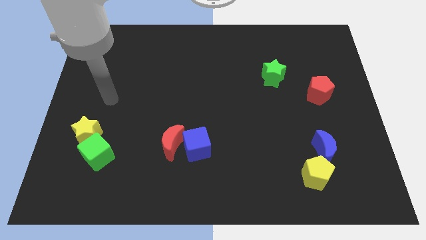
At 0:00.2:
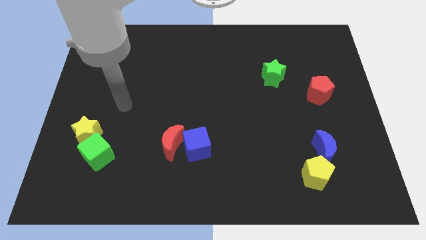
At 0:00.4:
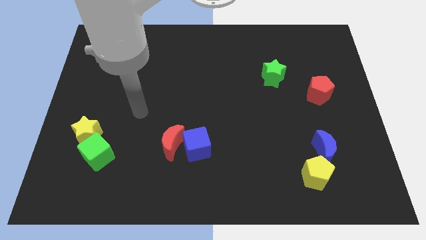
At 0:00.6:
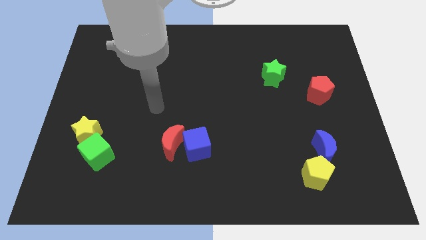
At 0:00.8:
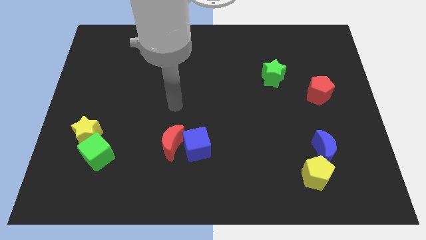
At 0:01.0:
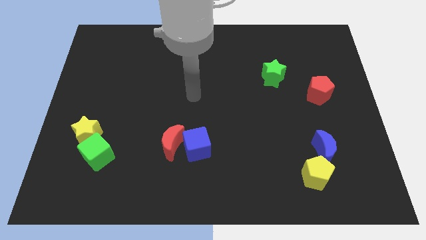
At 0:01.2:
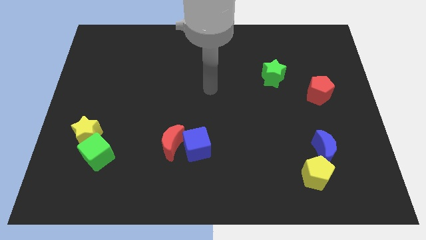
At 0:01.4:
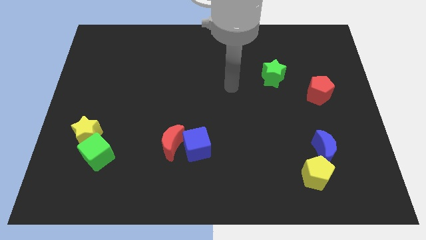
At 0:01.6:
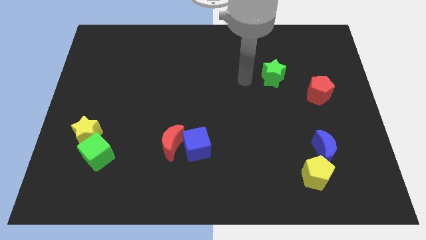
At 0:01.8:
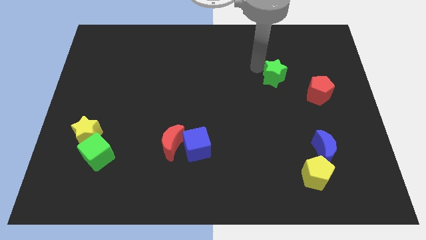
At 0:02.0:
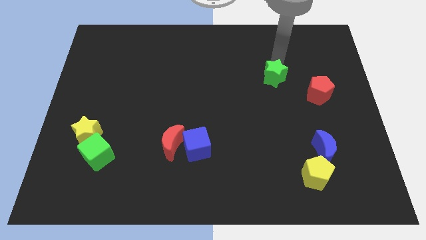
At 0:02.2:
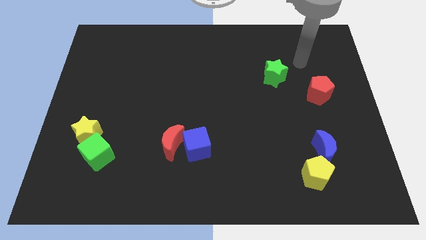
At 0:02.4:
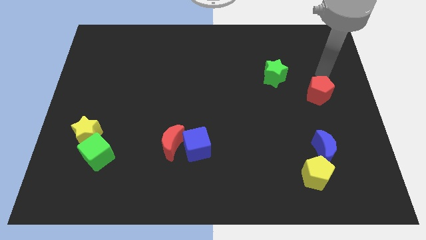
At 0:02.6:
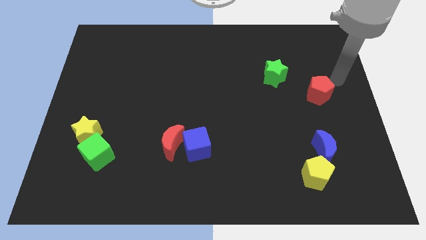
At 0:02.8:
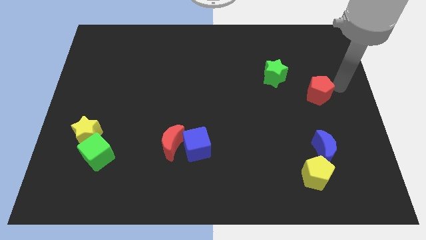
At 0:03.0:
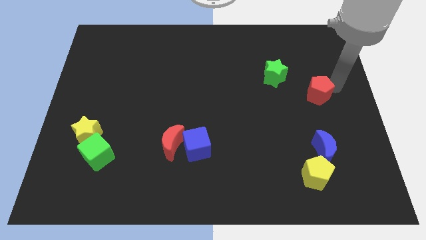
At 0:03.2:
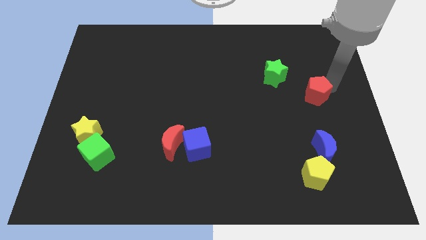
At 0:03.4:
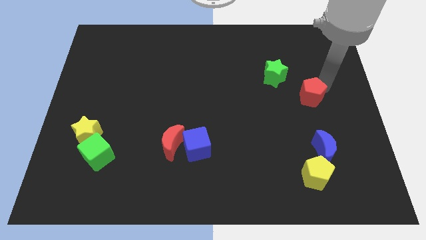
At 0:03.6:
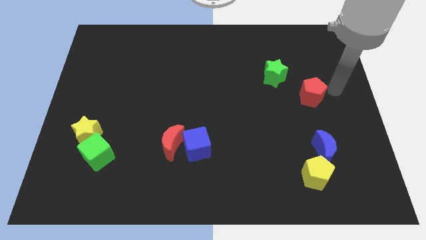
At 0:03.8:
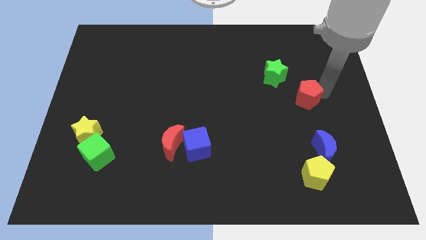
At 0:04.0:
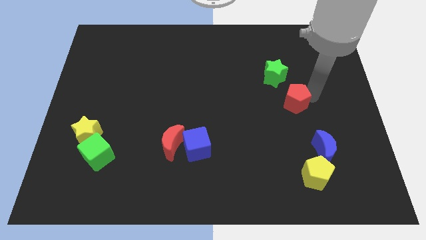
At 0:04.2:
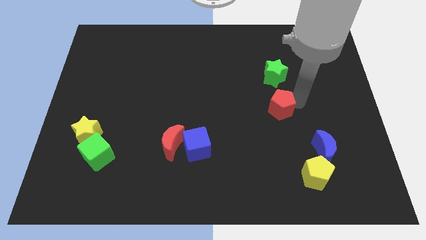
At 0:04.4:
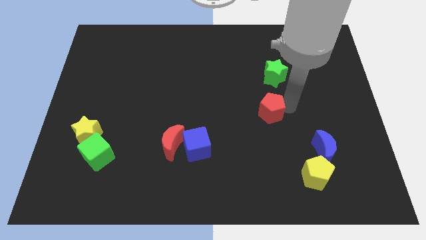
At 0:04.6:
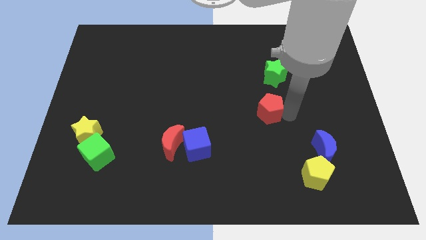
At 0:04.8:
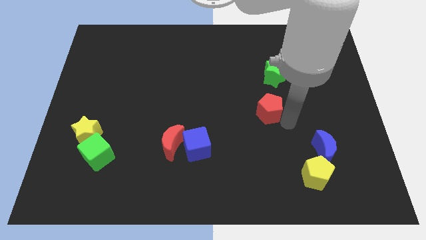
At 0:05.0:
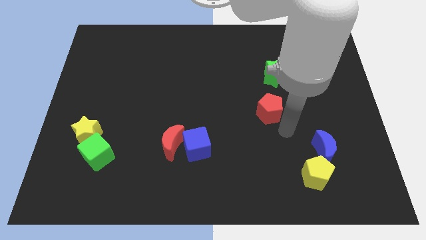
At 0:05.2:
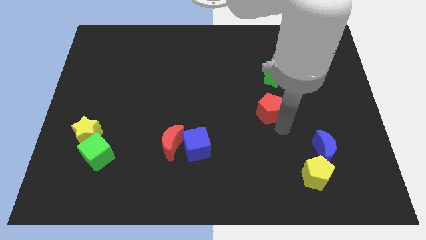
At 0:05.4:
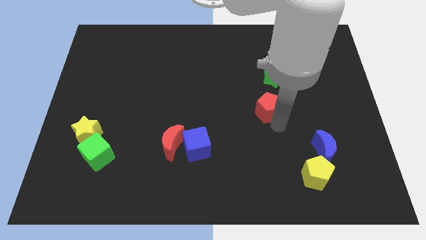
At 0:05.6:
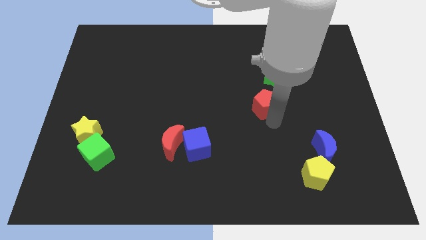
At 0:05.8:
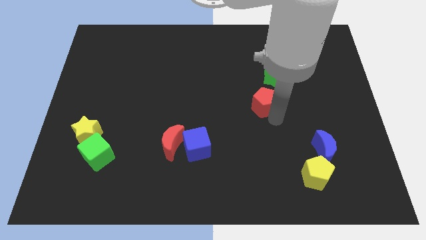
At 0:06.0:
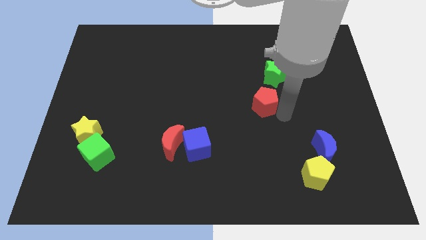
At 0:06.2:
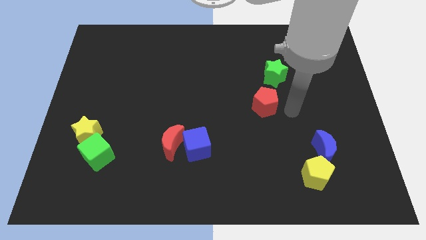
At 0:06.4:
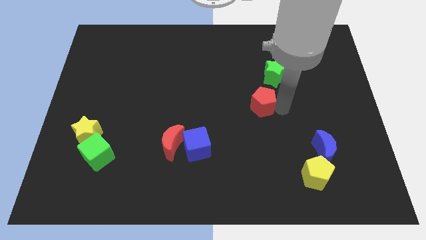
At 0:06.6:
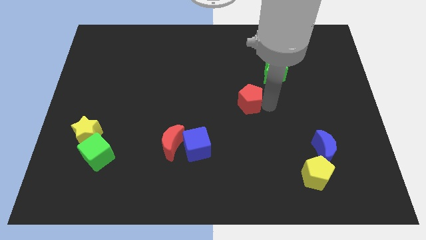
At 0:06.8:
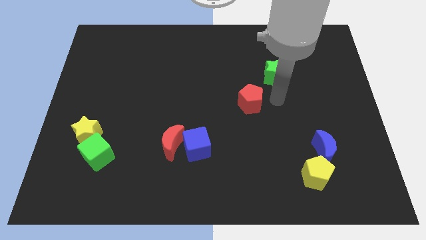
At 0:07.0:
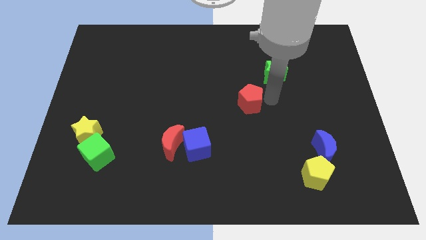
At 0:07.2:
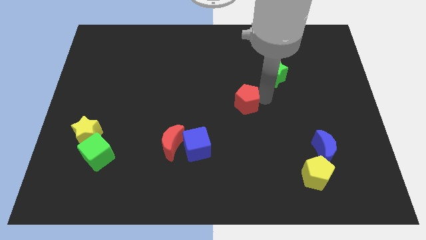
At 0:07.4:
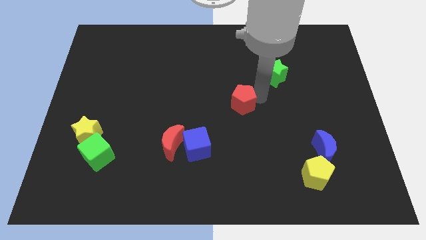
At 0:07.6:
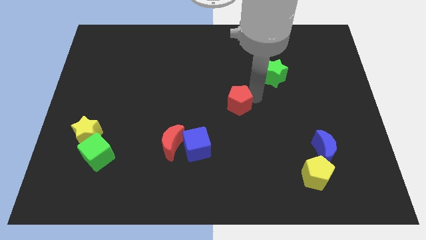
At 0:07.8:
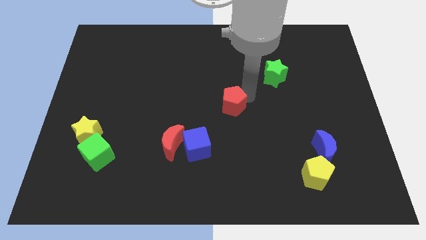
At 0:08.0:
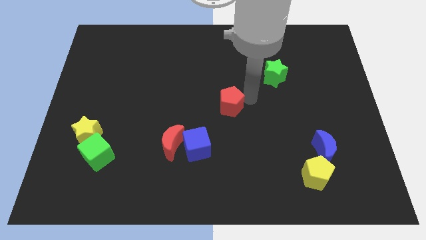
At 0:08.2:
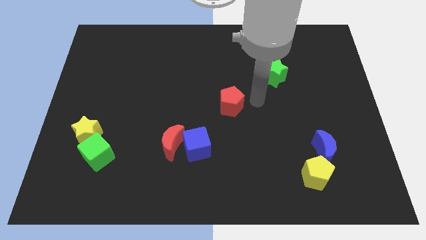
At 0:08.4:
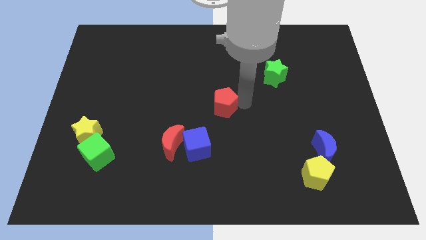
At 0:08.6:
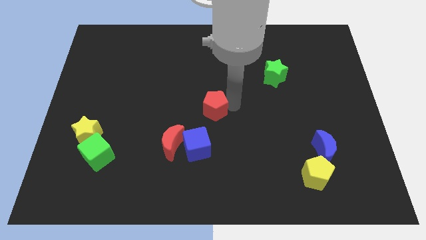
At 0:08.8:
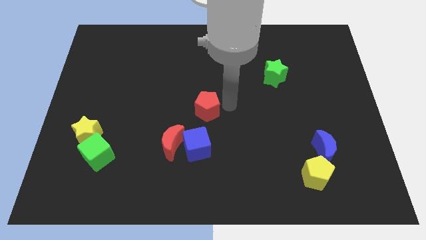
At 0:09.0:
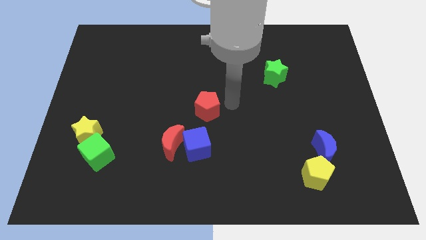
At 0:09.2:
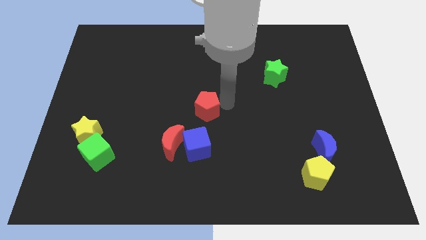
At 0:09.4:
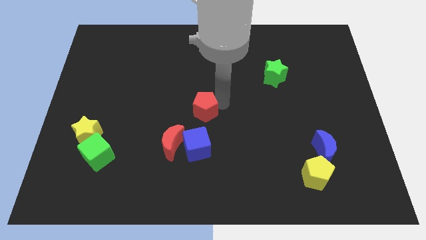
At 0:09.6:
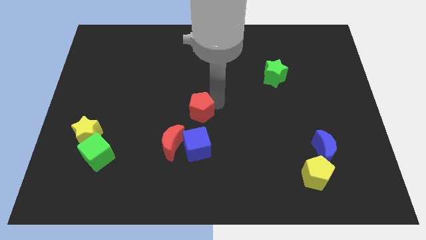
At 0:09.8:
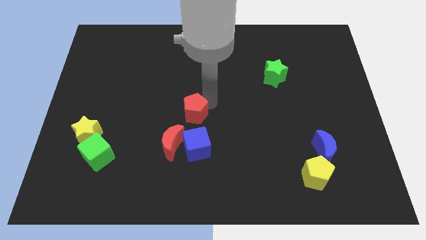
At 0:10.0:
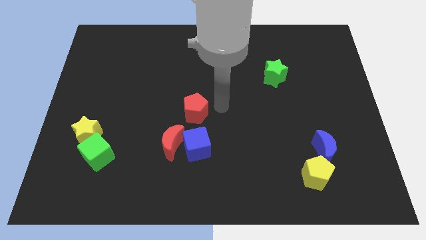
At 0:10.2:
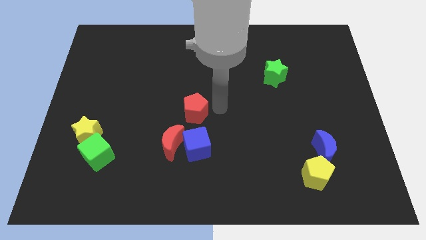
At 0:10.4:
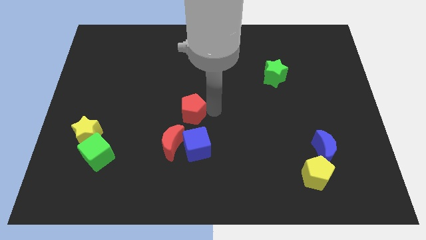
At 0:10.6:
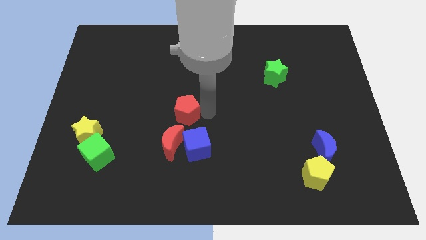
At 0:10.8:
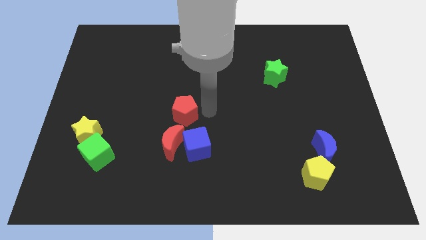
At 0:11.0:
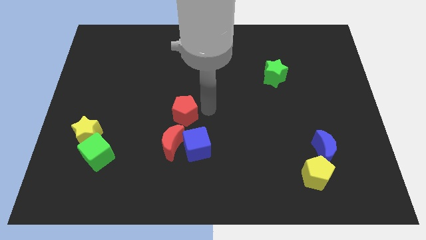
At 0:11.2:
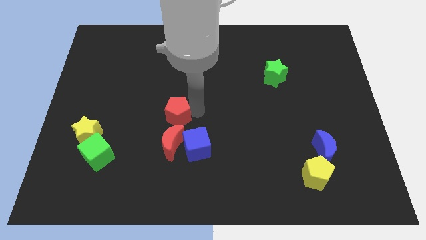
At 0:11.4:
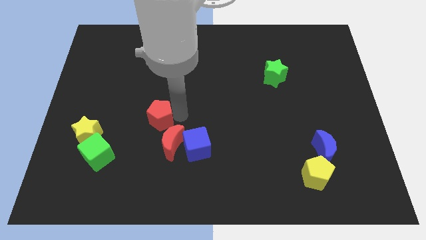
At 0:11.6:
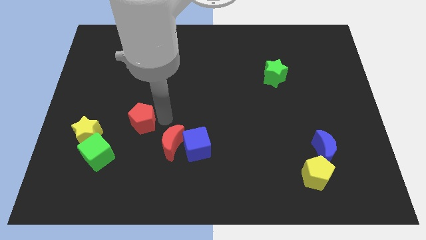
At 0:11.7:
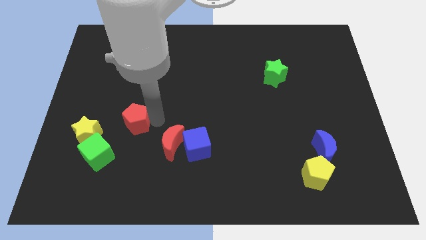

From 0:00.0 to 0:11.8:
move the red pentagon to the top right side of the yellow star
